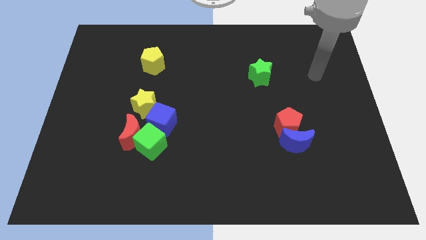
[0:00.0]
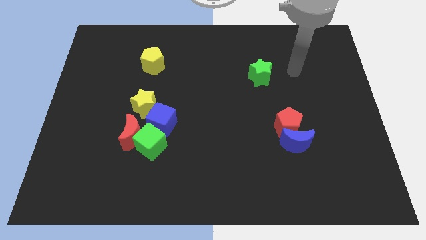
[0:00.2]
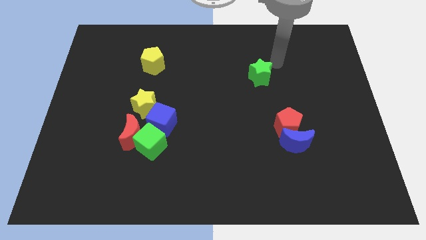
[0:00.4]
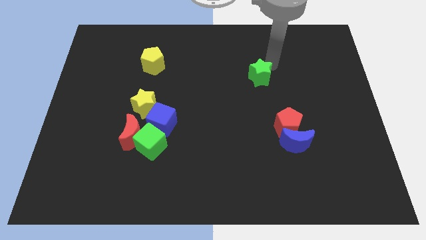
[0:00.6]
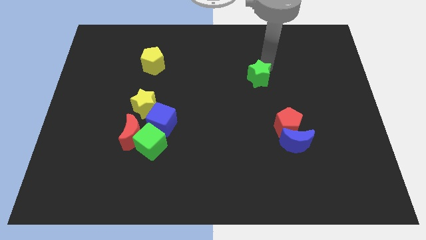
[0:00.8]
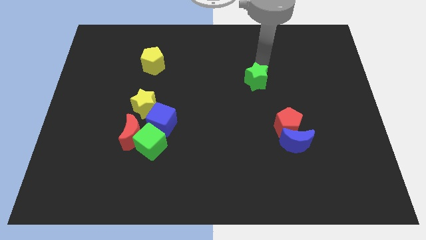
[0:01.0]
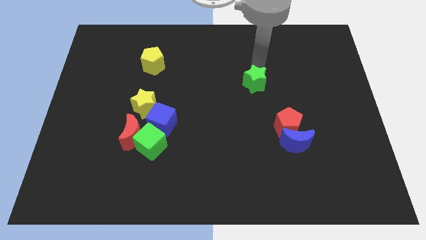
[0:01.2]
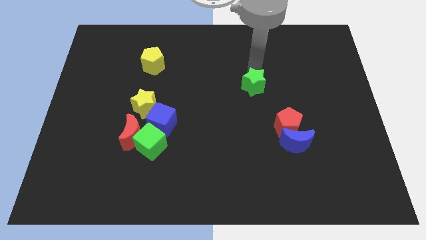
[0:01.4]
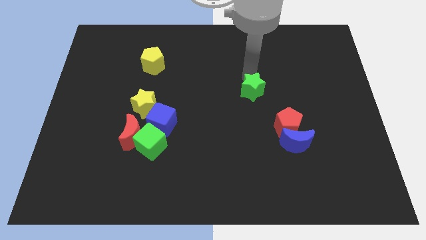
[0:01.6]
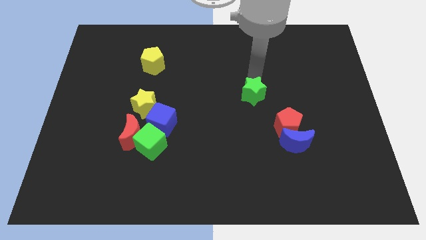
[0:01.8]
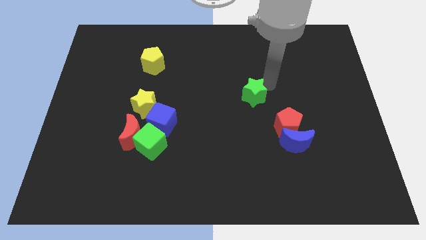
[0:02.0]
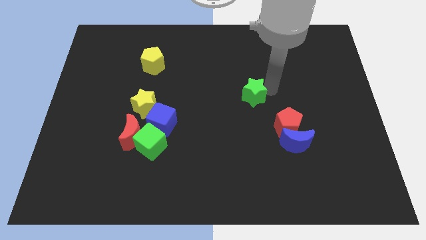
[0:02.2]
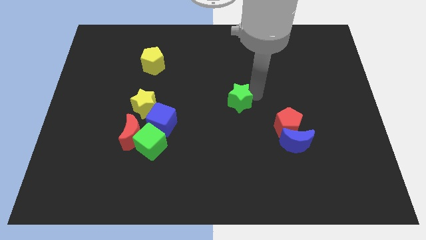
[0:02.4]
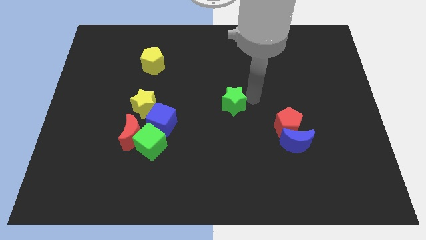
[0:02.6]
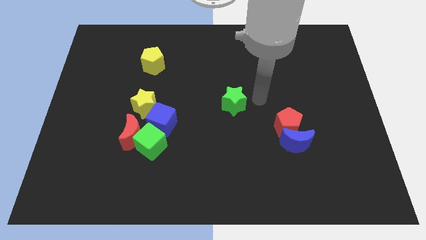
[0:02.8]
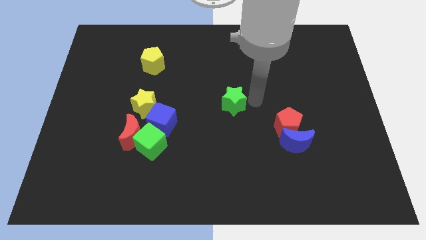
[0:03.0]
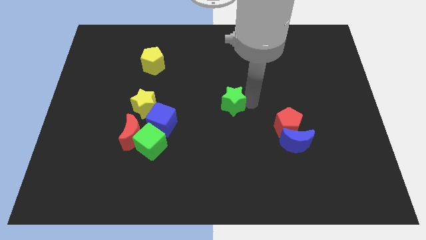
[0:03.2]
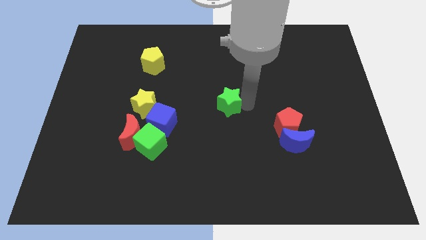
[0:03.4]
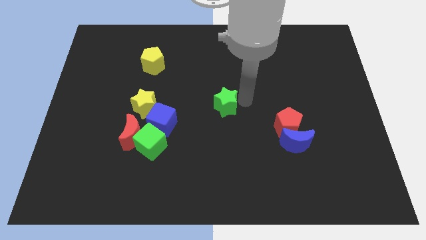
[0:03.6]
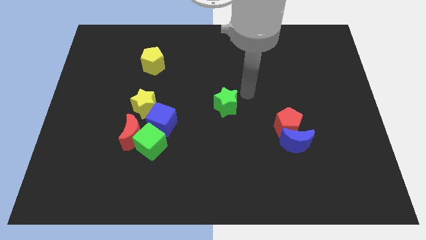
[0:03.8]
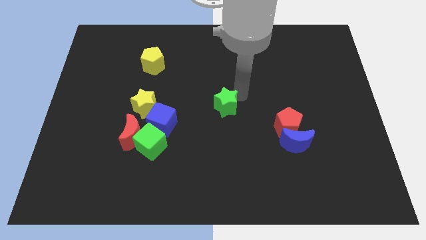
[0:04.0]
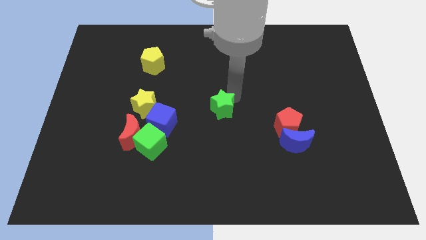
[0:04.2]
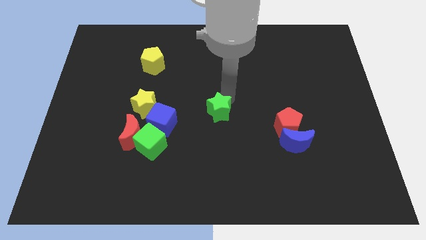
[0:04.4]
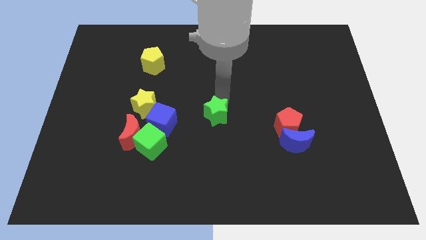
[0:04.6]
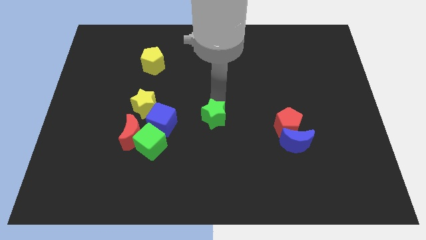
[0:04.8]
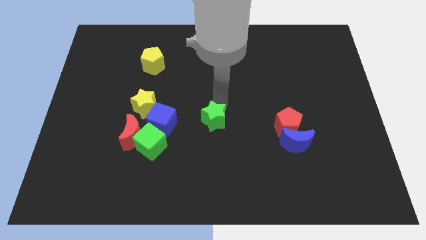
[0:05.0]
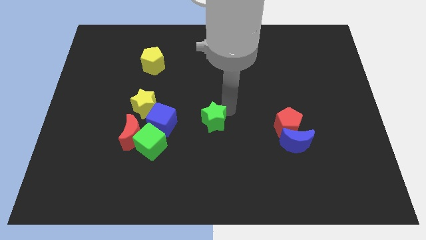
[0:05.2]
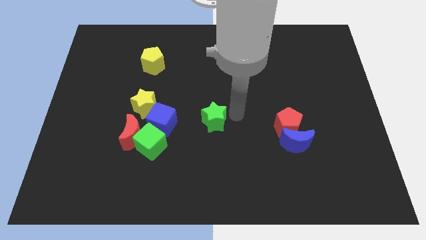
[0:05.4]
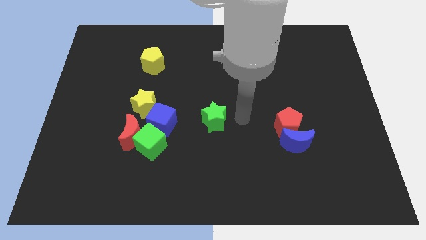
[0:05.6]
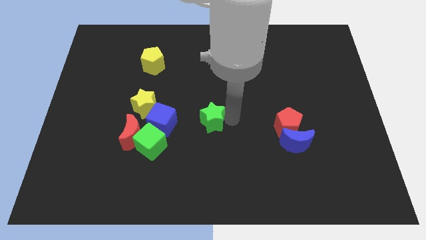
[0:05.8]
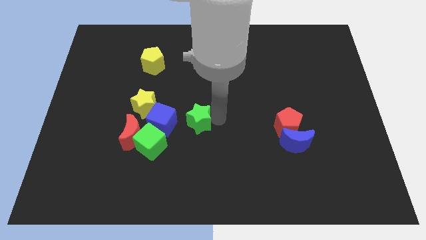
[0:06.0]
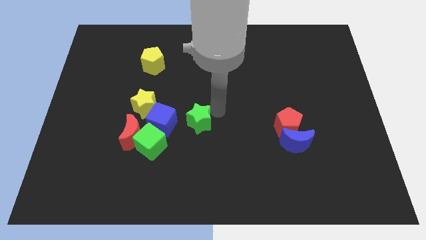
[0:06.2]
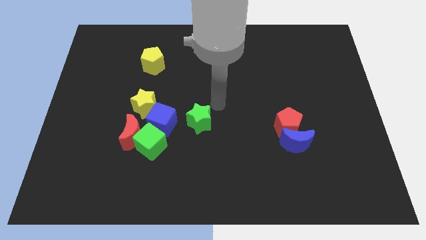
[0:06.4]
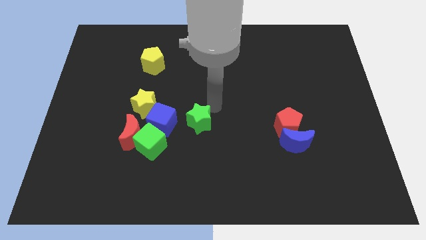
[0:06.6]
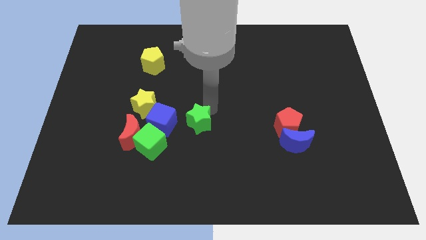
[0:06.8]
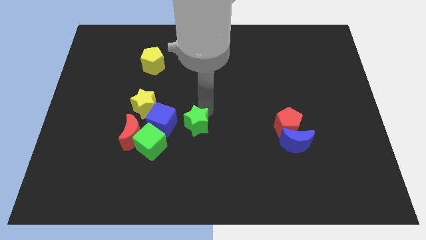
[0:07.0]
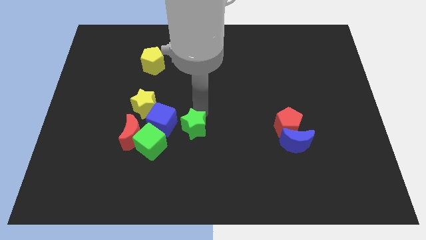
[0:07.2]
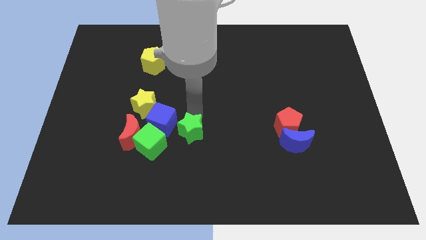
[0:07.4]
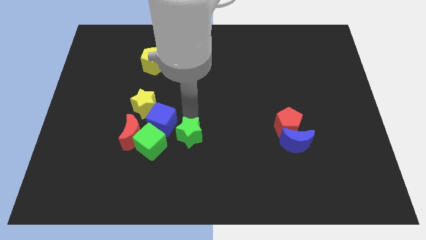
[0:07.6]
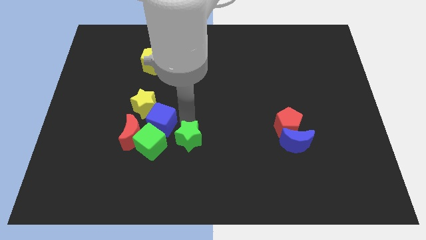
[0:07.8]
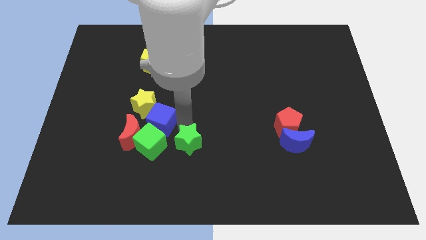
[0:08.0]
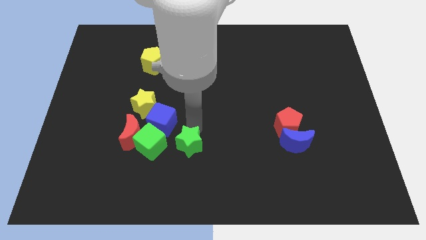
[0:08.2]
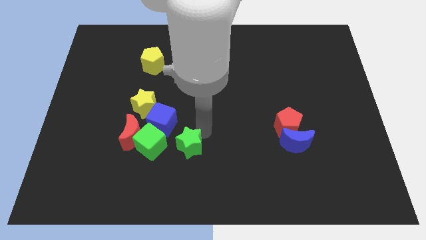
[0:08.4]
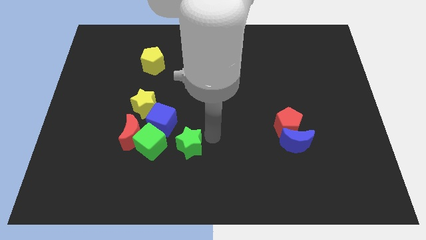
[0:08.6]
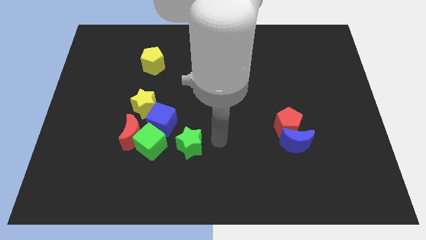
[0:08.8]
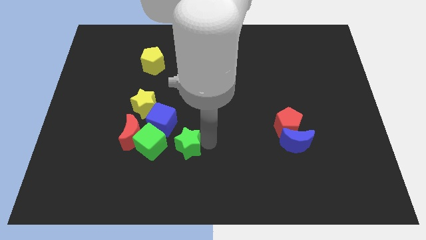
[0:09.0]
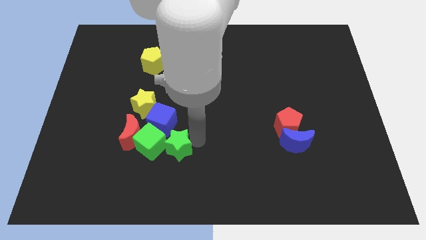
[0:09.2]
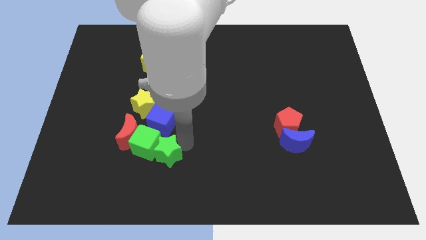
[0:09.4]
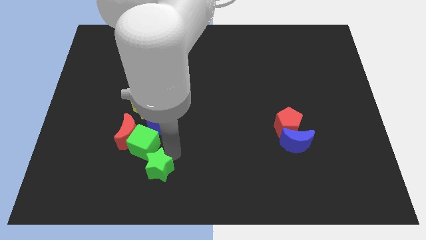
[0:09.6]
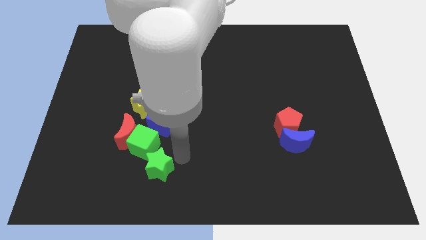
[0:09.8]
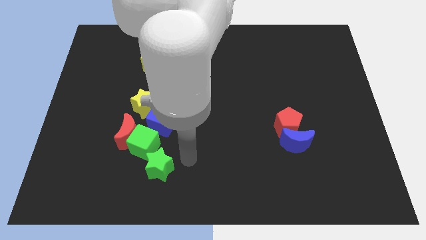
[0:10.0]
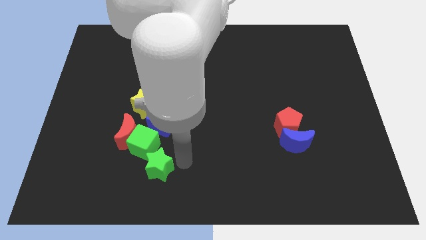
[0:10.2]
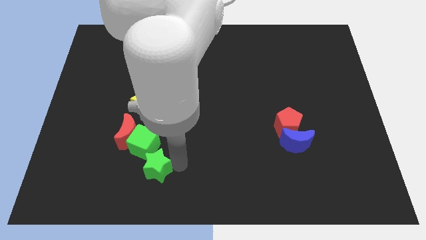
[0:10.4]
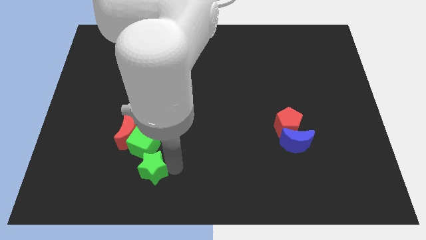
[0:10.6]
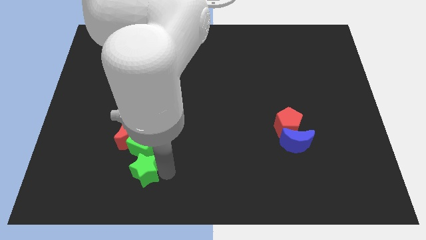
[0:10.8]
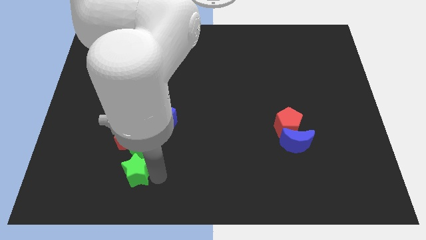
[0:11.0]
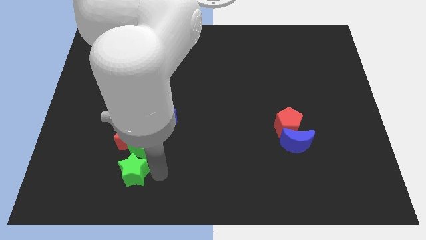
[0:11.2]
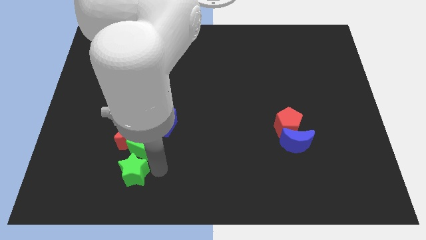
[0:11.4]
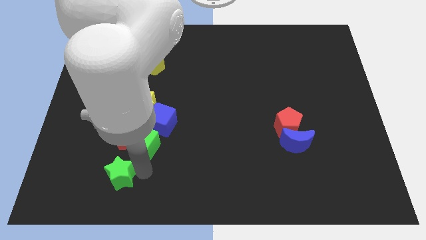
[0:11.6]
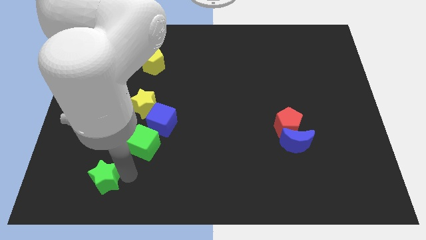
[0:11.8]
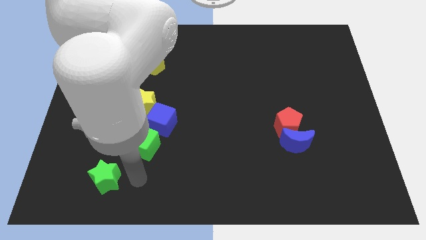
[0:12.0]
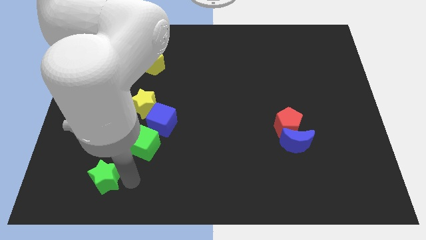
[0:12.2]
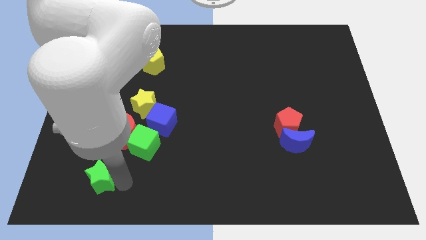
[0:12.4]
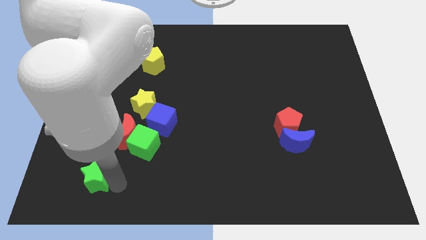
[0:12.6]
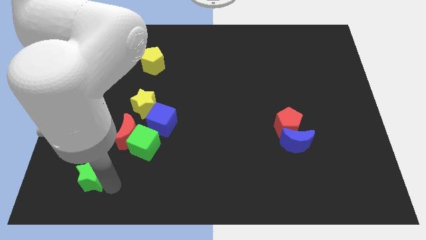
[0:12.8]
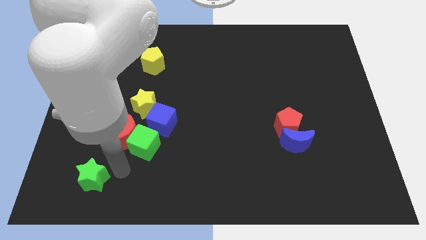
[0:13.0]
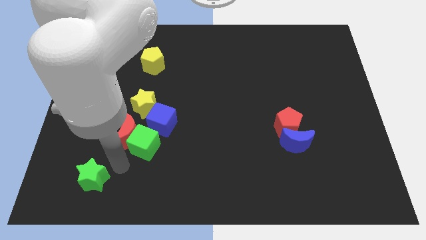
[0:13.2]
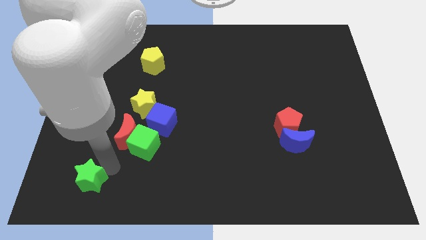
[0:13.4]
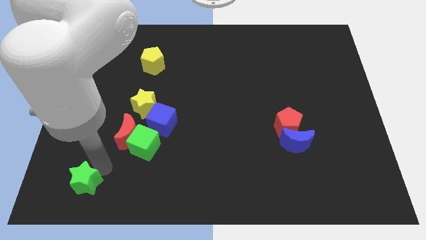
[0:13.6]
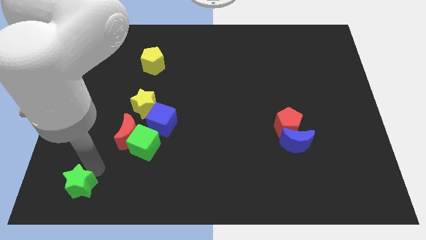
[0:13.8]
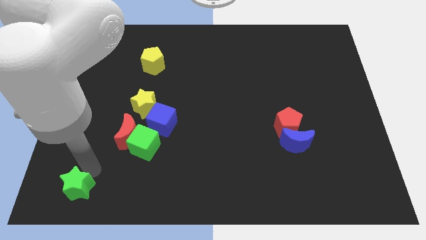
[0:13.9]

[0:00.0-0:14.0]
push the green star to the bottom left corner

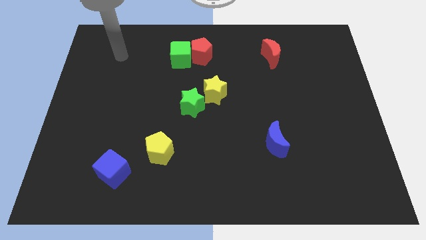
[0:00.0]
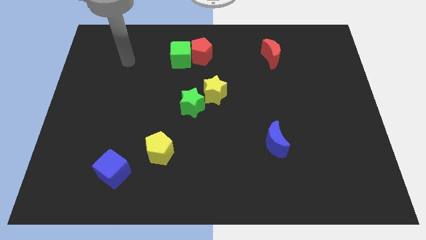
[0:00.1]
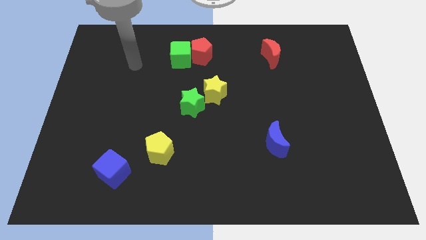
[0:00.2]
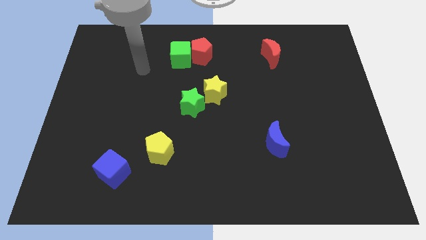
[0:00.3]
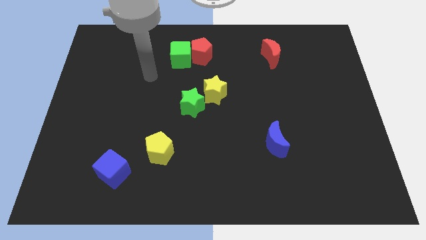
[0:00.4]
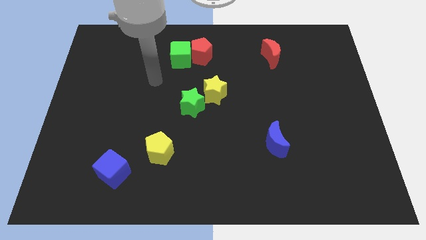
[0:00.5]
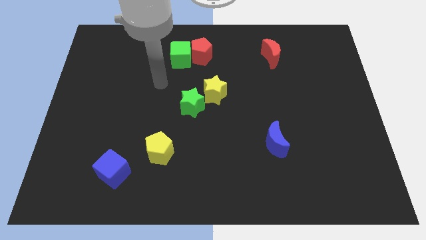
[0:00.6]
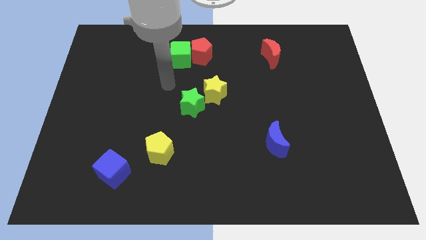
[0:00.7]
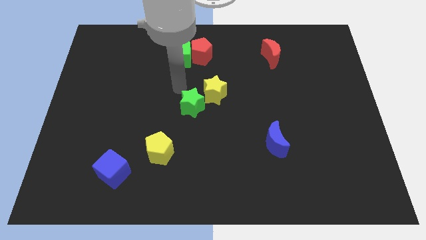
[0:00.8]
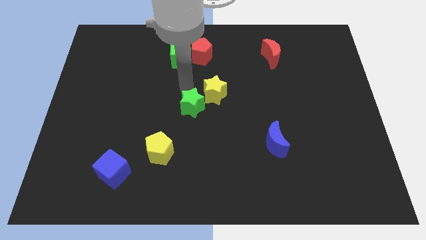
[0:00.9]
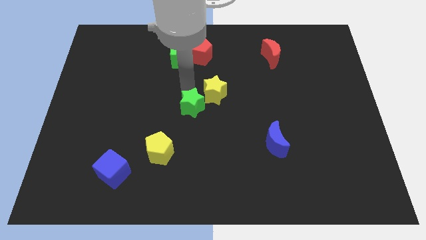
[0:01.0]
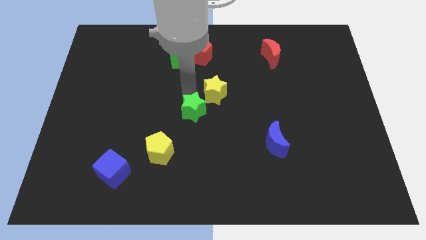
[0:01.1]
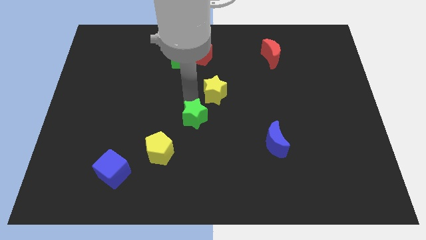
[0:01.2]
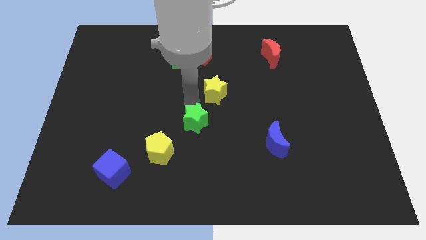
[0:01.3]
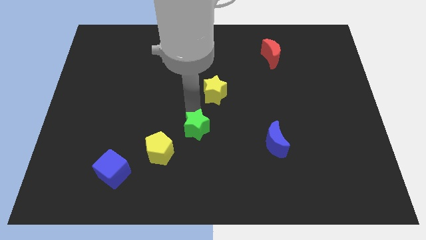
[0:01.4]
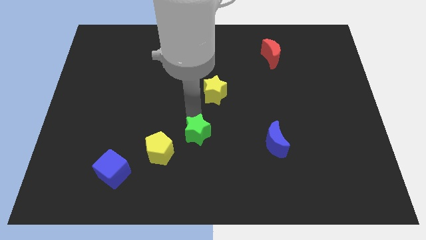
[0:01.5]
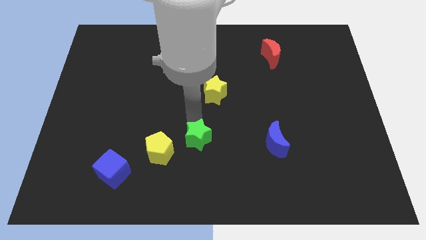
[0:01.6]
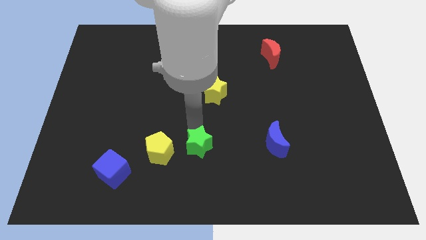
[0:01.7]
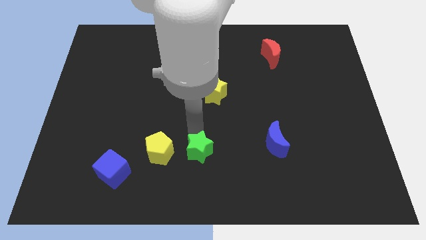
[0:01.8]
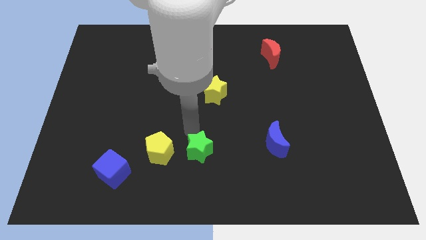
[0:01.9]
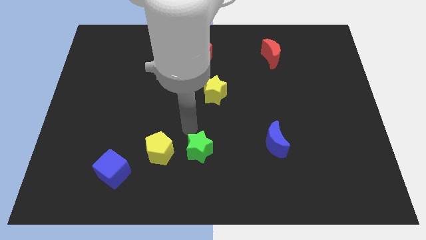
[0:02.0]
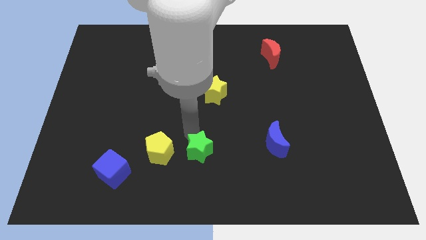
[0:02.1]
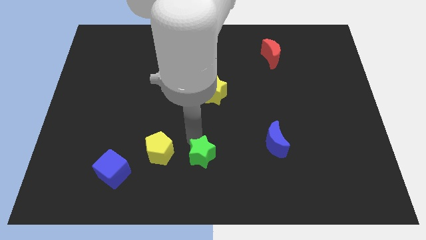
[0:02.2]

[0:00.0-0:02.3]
push the green star to the bottom
